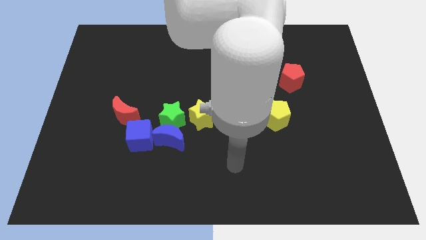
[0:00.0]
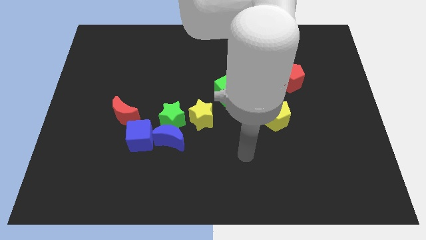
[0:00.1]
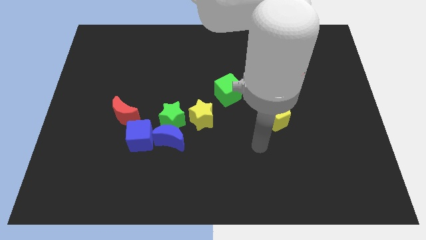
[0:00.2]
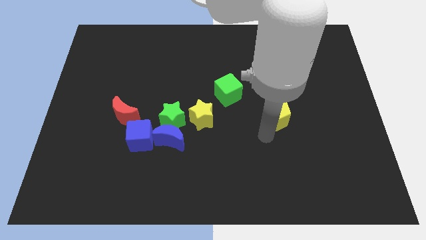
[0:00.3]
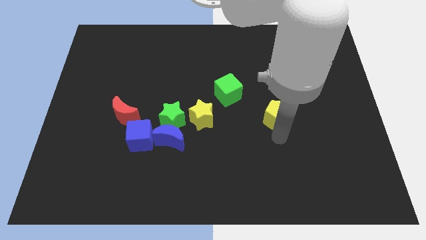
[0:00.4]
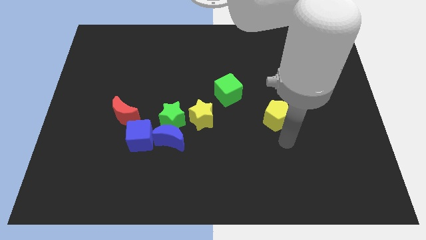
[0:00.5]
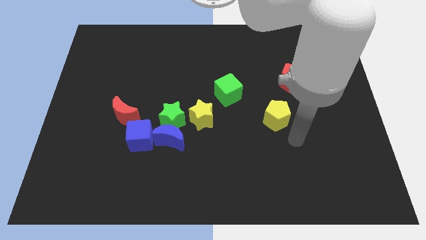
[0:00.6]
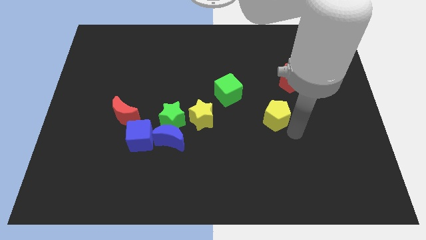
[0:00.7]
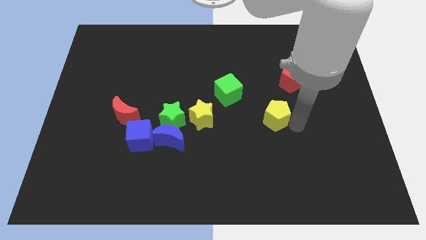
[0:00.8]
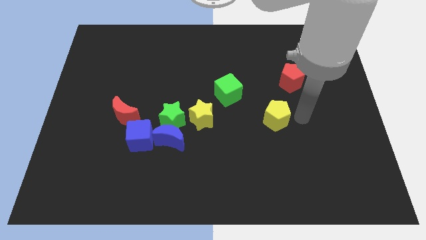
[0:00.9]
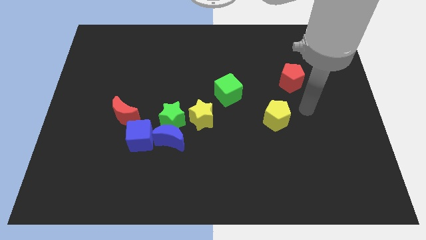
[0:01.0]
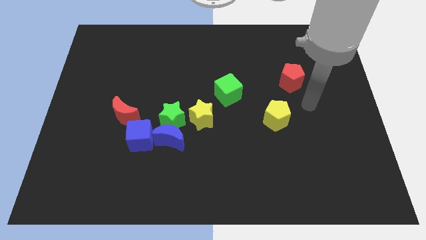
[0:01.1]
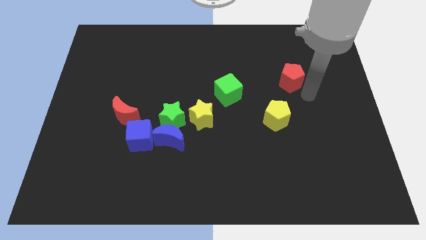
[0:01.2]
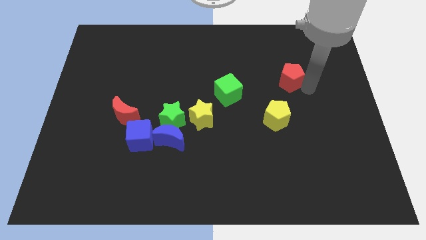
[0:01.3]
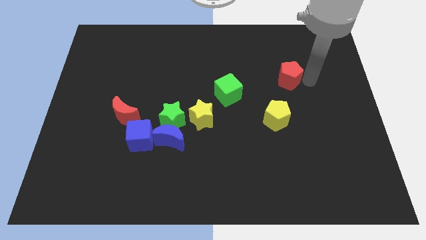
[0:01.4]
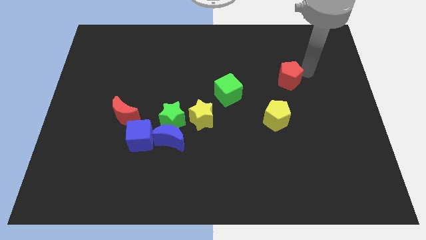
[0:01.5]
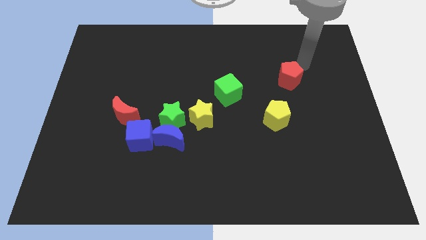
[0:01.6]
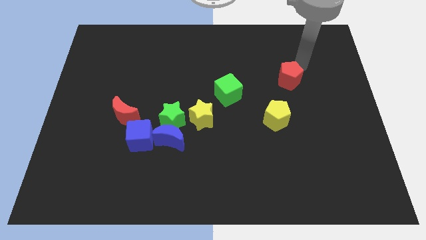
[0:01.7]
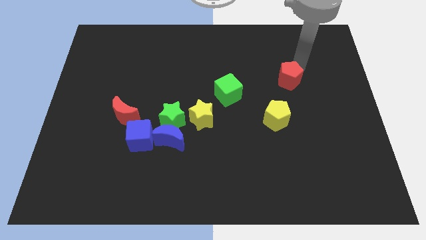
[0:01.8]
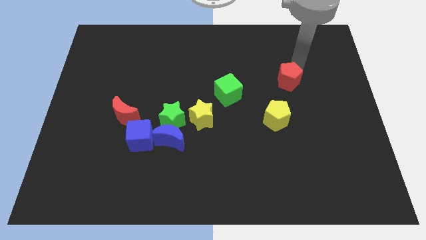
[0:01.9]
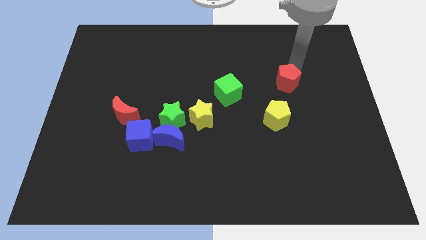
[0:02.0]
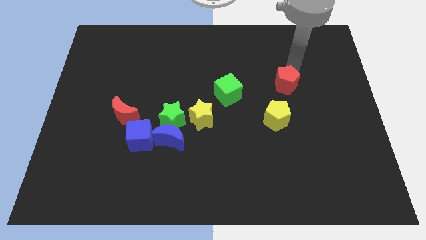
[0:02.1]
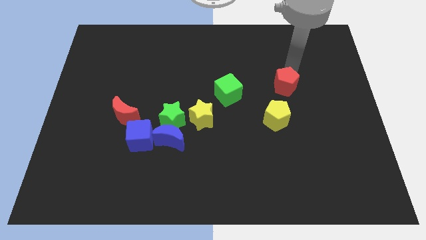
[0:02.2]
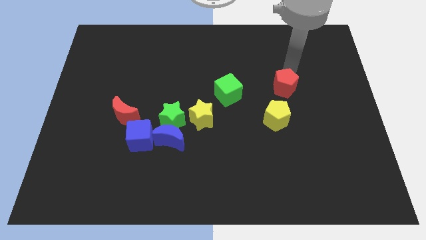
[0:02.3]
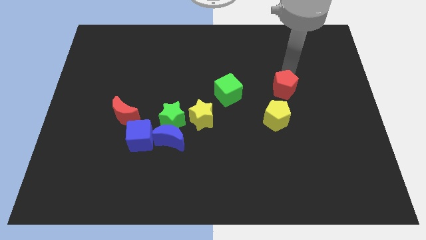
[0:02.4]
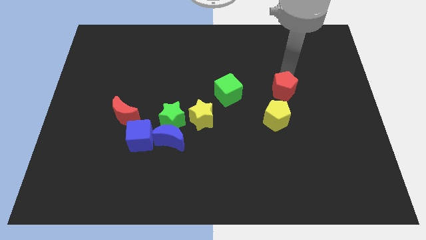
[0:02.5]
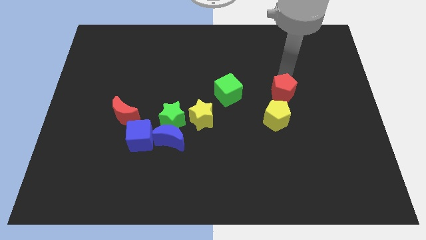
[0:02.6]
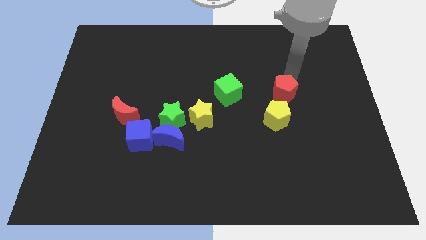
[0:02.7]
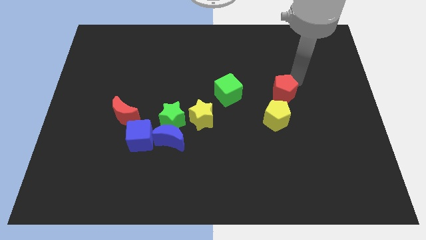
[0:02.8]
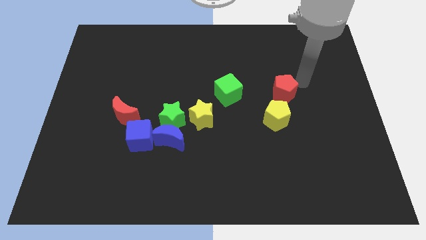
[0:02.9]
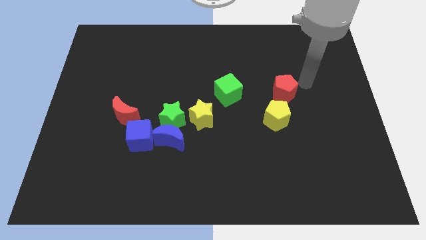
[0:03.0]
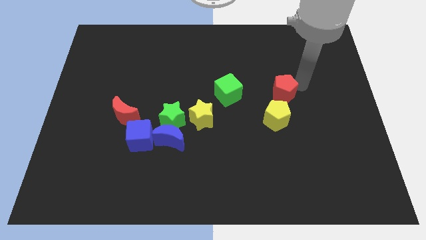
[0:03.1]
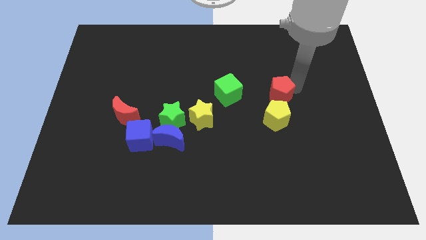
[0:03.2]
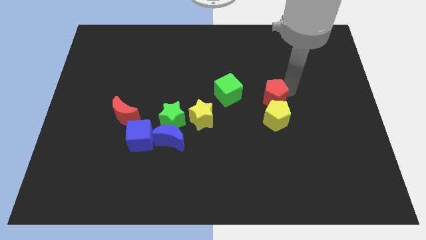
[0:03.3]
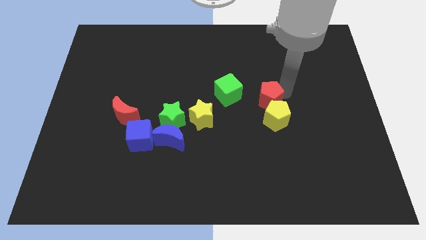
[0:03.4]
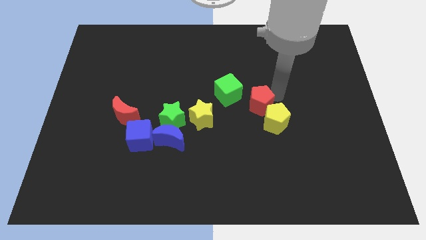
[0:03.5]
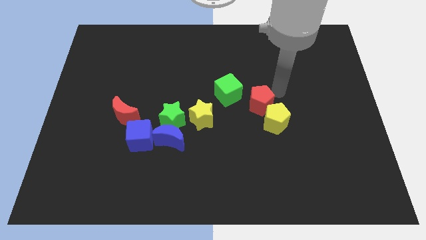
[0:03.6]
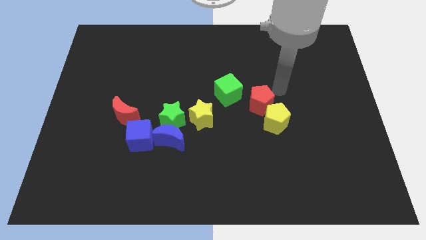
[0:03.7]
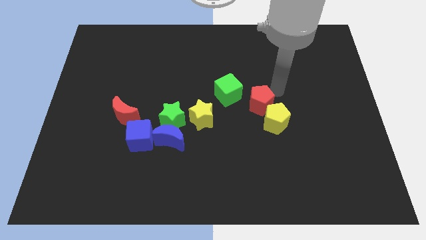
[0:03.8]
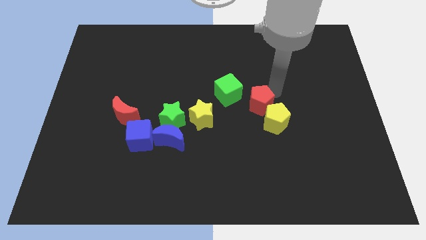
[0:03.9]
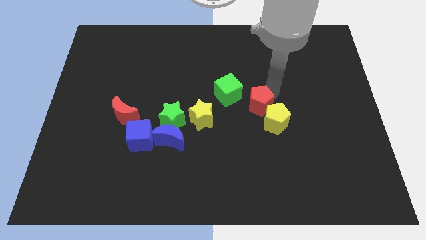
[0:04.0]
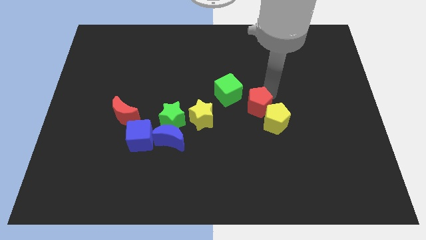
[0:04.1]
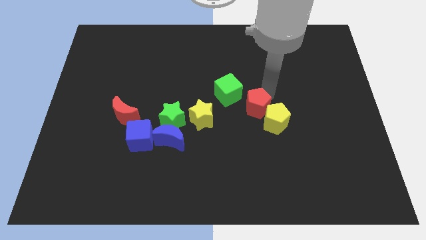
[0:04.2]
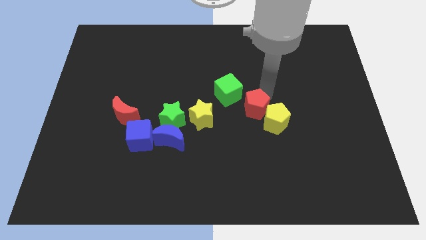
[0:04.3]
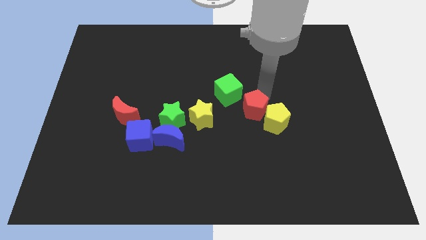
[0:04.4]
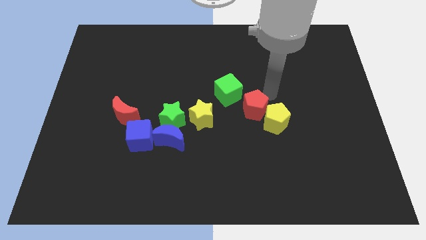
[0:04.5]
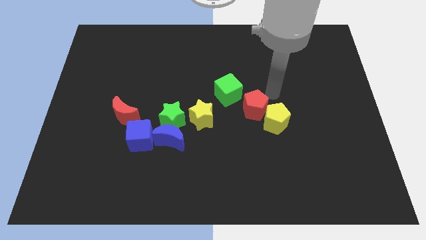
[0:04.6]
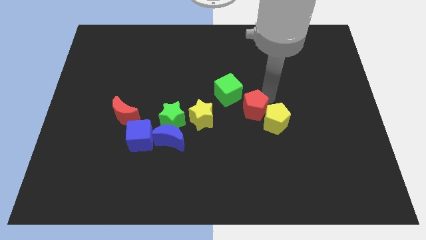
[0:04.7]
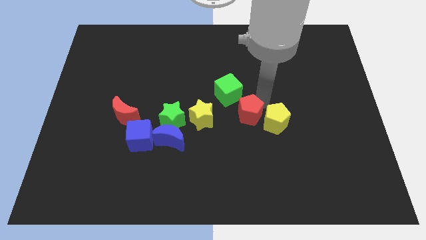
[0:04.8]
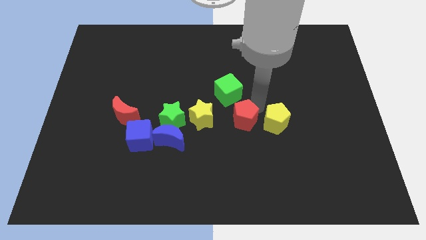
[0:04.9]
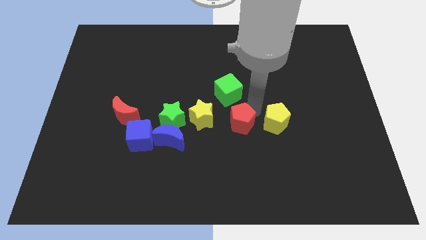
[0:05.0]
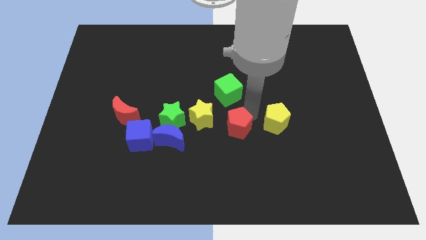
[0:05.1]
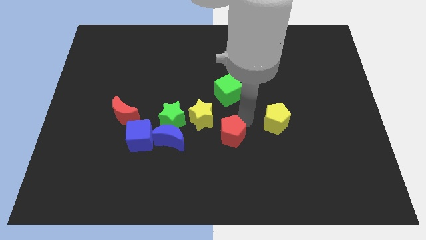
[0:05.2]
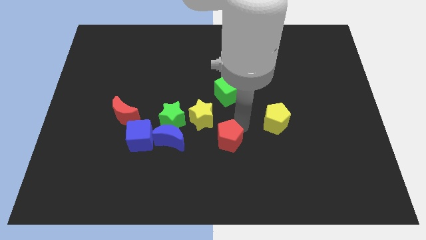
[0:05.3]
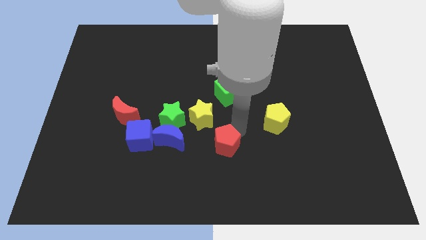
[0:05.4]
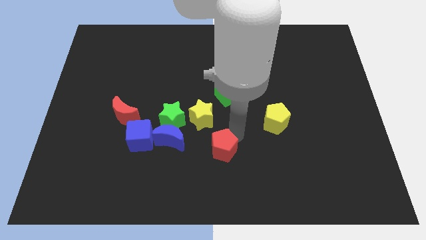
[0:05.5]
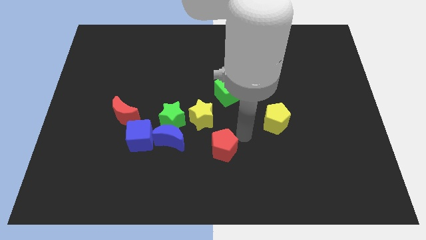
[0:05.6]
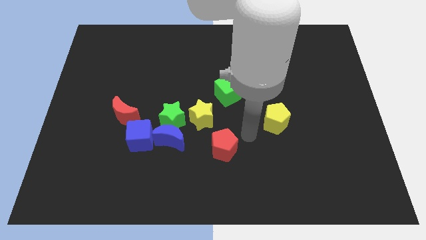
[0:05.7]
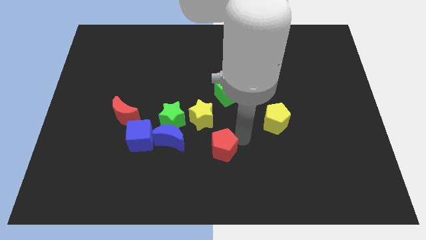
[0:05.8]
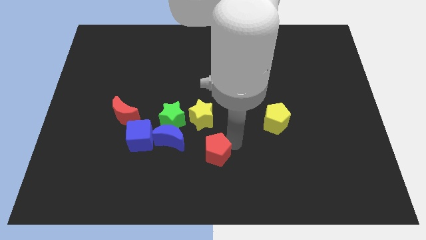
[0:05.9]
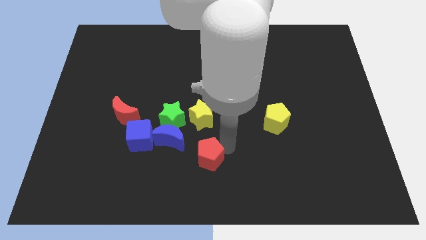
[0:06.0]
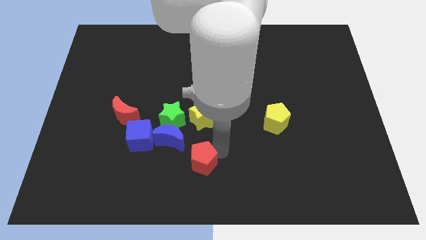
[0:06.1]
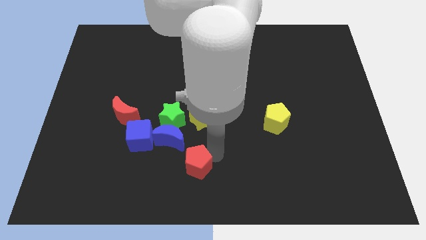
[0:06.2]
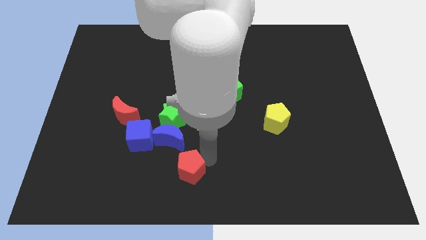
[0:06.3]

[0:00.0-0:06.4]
put the red pentagon below the blue moon

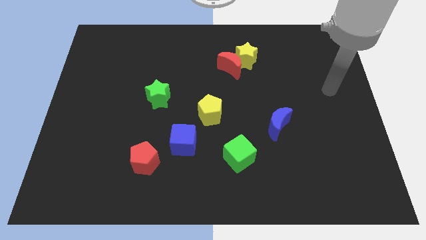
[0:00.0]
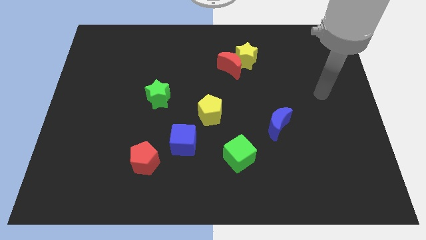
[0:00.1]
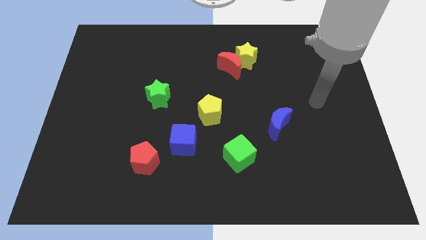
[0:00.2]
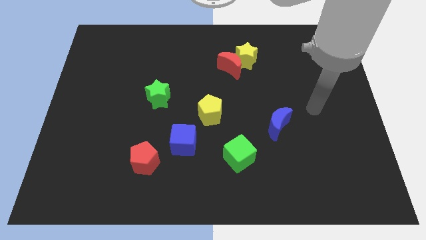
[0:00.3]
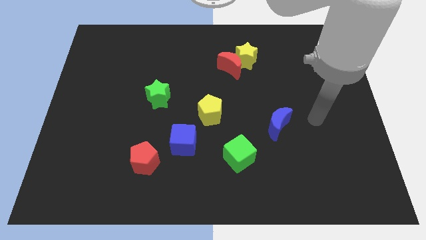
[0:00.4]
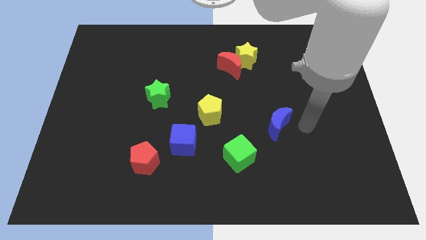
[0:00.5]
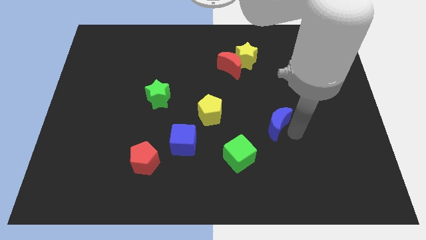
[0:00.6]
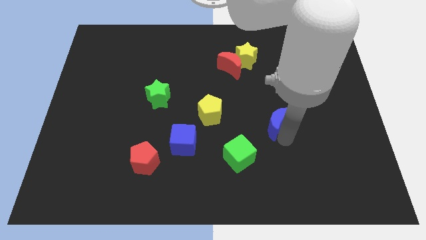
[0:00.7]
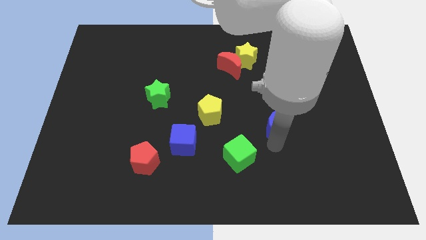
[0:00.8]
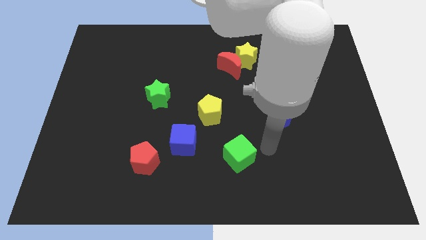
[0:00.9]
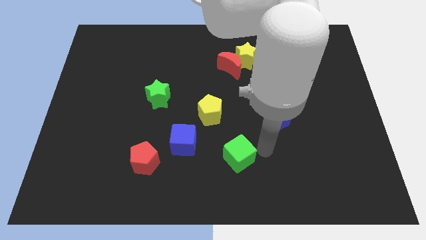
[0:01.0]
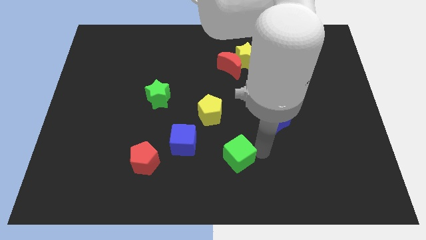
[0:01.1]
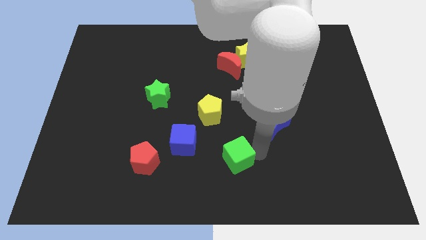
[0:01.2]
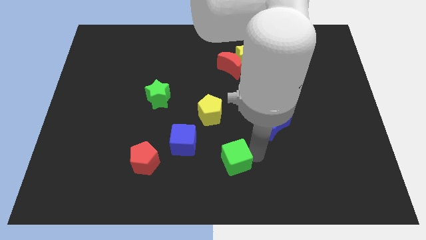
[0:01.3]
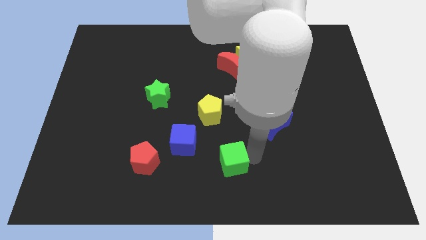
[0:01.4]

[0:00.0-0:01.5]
slide the green cube to the bottom right side of the blue cube
